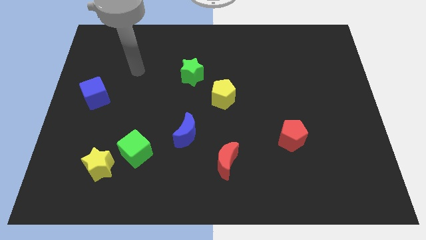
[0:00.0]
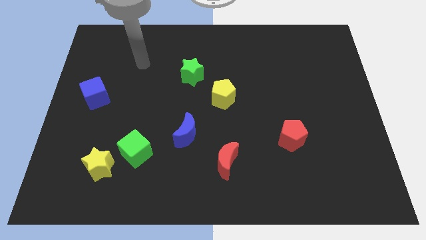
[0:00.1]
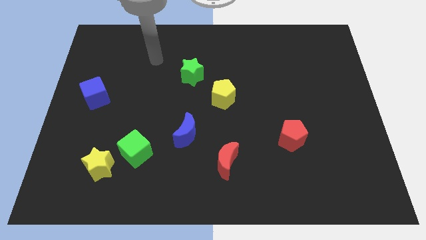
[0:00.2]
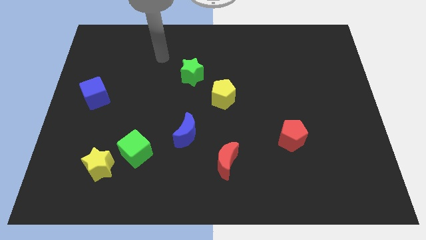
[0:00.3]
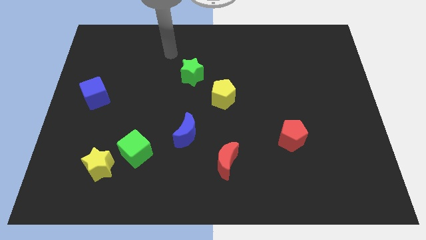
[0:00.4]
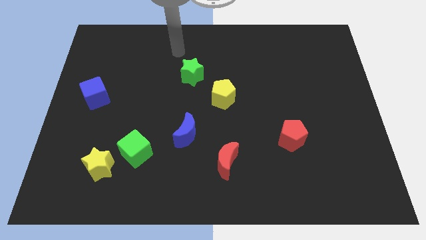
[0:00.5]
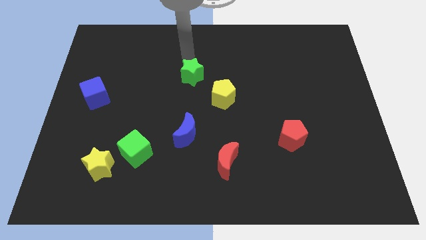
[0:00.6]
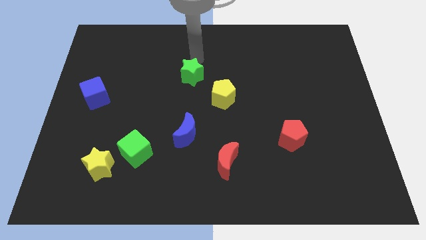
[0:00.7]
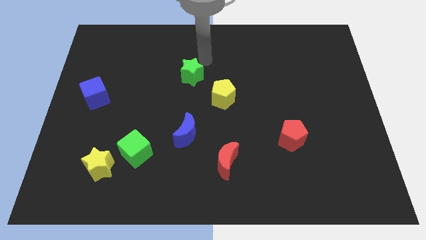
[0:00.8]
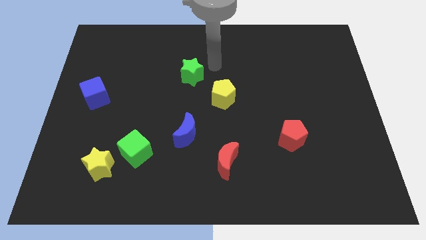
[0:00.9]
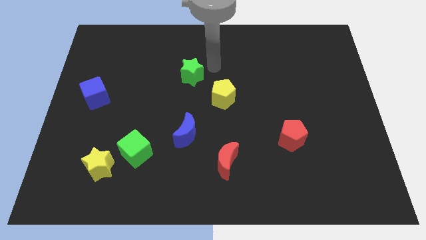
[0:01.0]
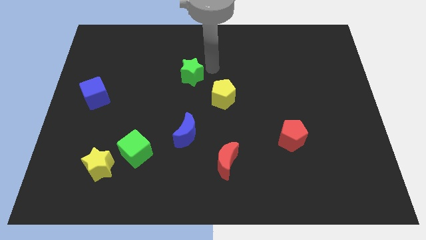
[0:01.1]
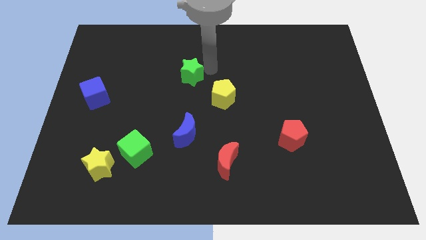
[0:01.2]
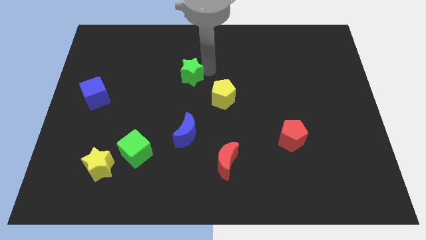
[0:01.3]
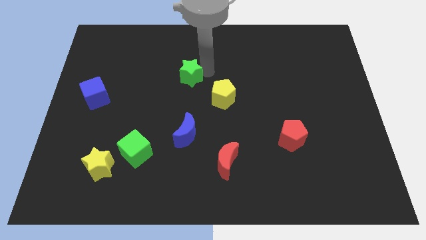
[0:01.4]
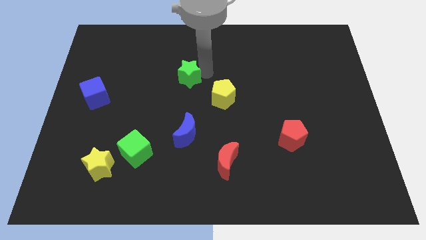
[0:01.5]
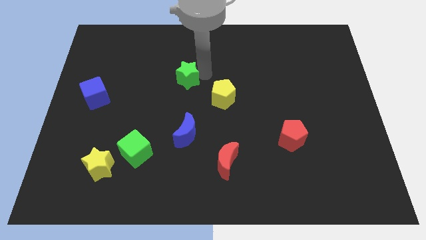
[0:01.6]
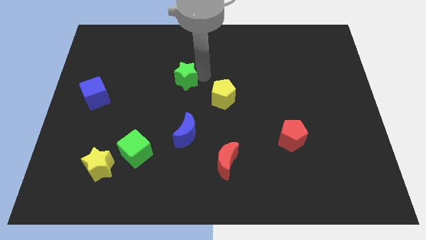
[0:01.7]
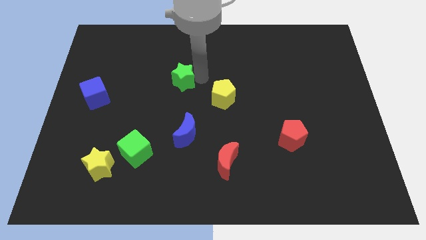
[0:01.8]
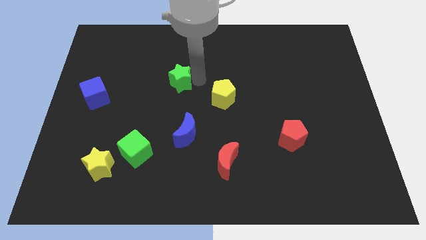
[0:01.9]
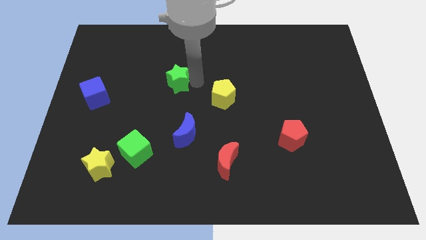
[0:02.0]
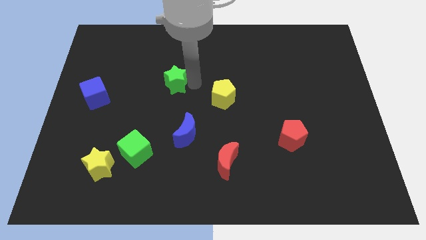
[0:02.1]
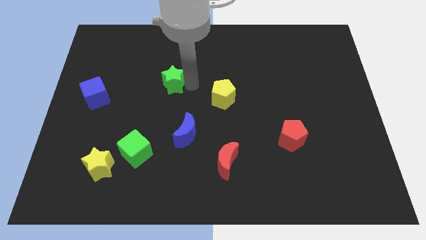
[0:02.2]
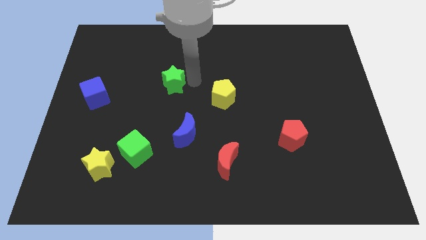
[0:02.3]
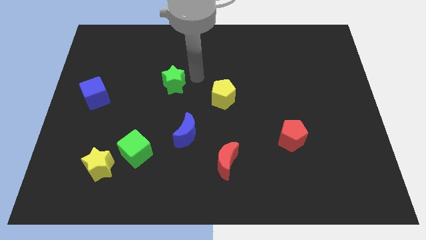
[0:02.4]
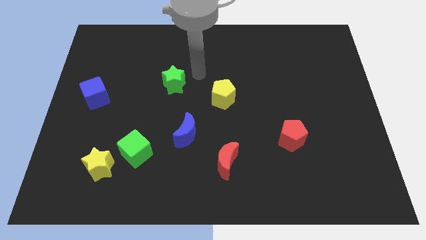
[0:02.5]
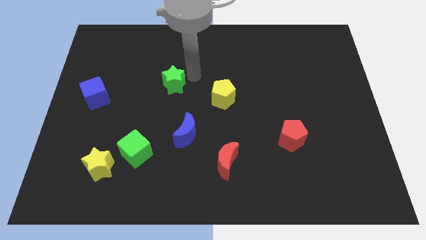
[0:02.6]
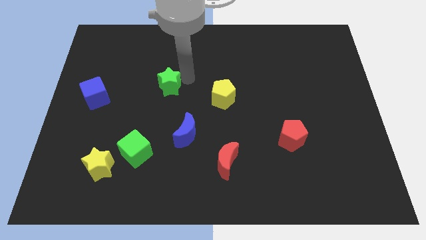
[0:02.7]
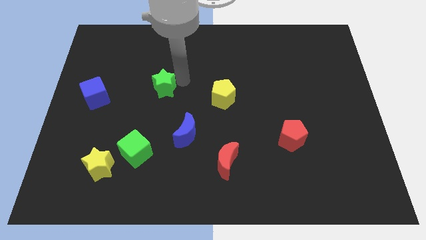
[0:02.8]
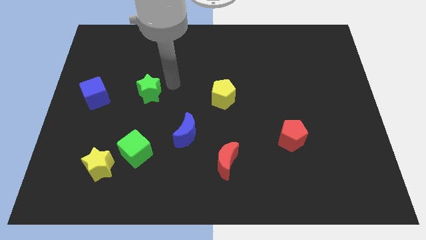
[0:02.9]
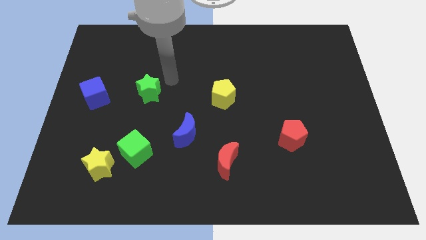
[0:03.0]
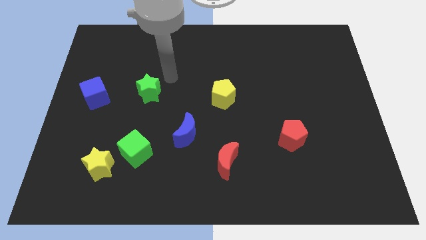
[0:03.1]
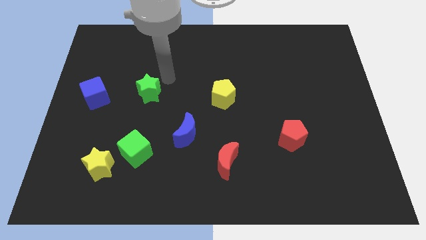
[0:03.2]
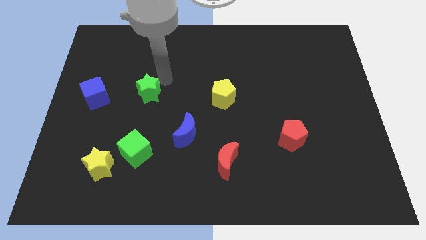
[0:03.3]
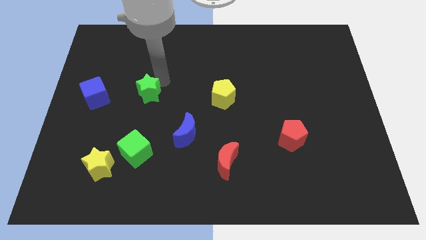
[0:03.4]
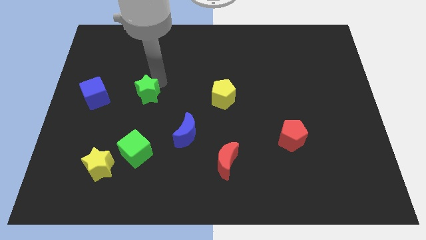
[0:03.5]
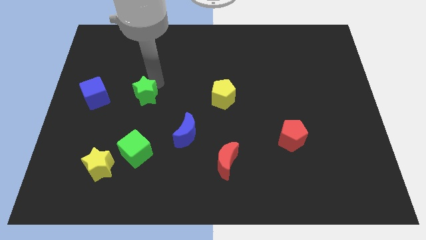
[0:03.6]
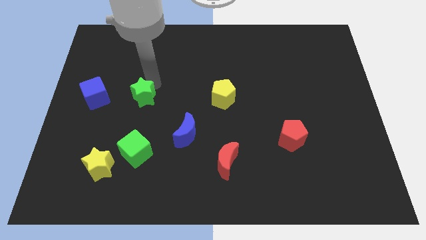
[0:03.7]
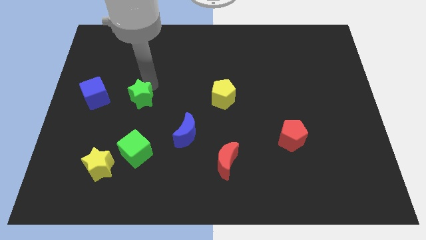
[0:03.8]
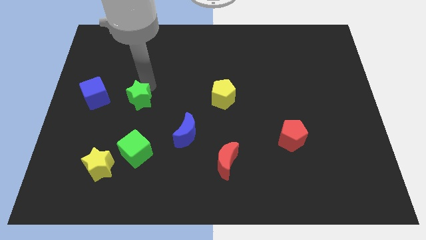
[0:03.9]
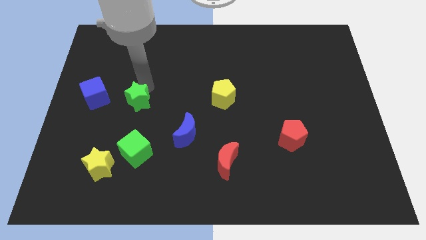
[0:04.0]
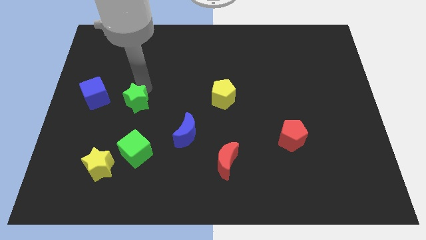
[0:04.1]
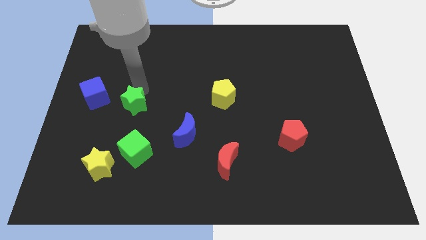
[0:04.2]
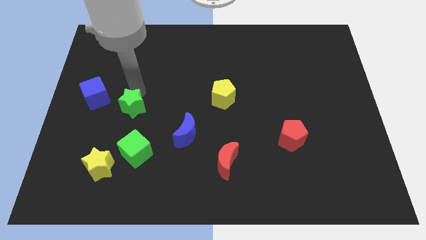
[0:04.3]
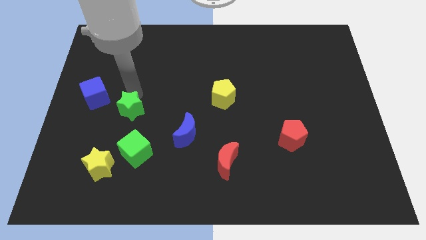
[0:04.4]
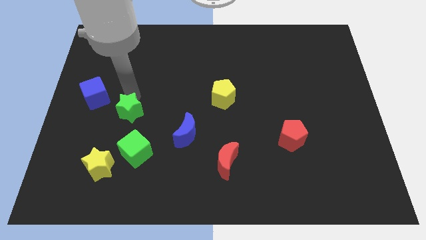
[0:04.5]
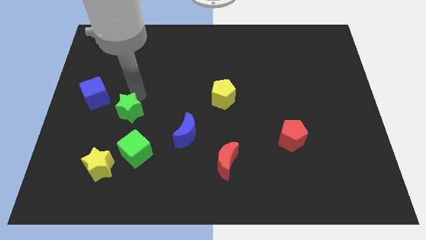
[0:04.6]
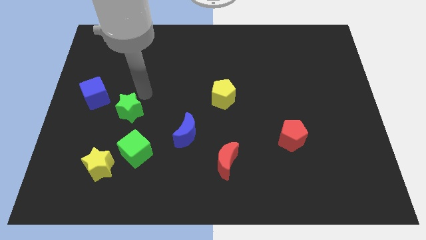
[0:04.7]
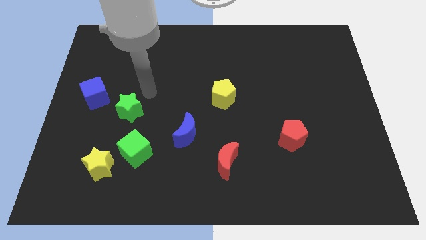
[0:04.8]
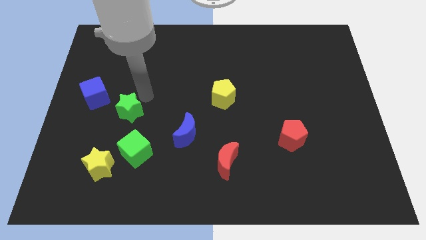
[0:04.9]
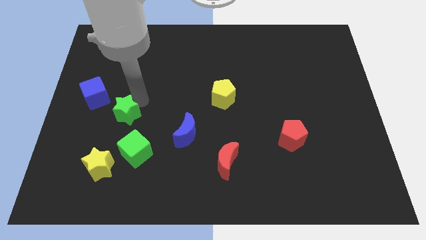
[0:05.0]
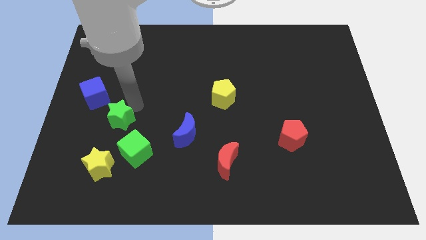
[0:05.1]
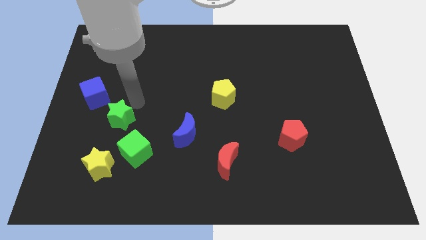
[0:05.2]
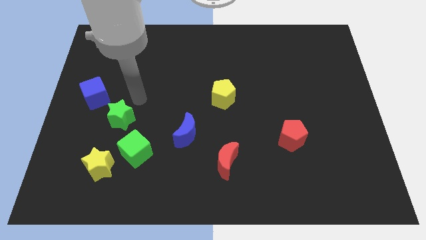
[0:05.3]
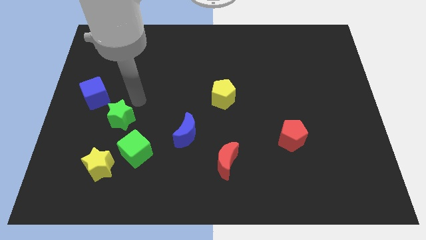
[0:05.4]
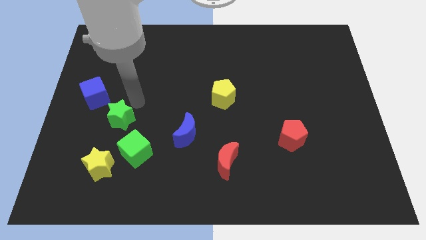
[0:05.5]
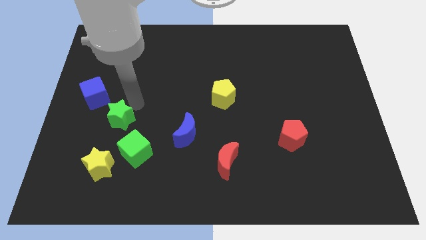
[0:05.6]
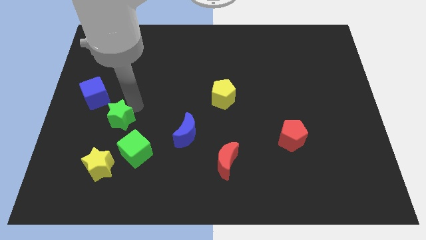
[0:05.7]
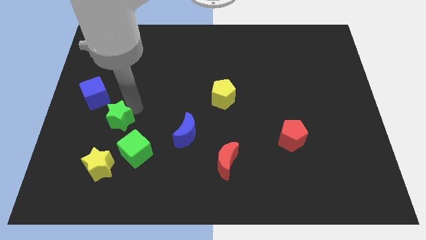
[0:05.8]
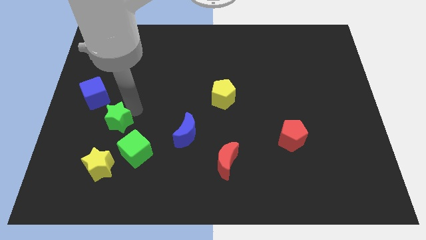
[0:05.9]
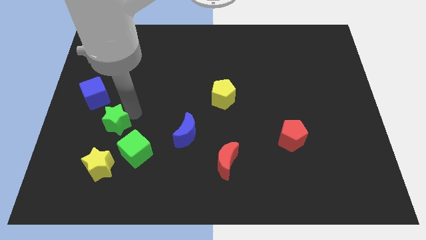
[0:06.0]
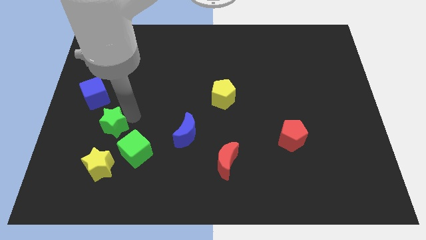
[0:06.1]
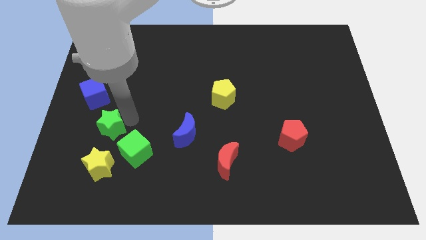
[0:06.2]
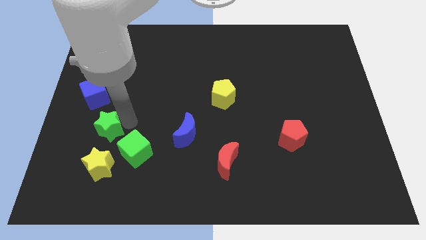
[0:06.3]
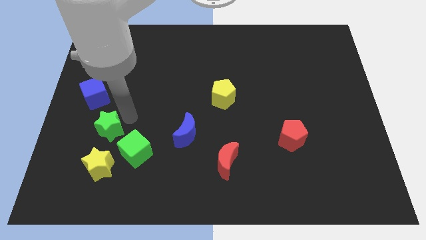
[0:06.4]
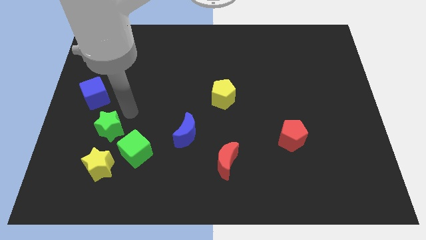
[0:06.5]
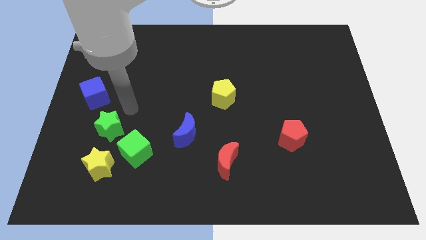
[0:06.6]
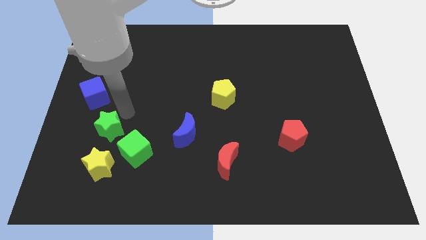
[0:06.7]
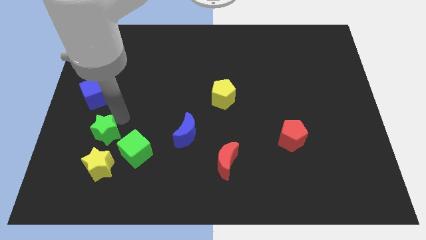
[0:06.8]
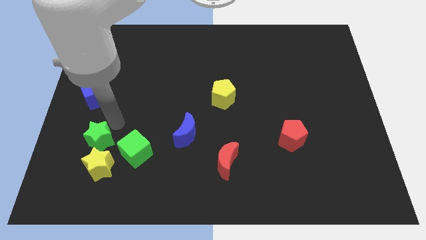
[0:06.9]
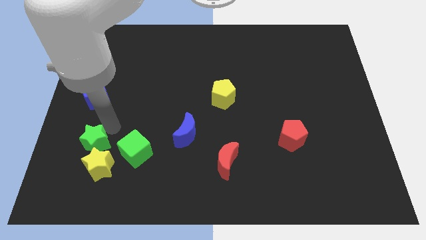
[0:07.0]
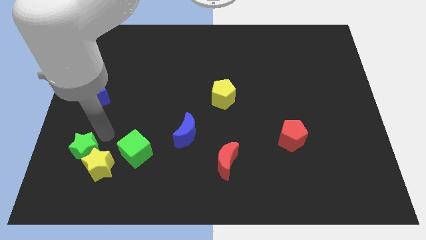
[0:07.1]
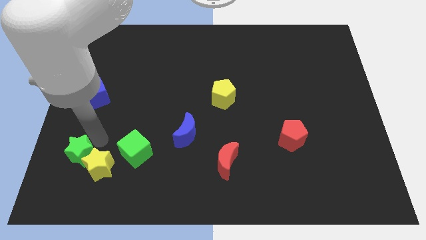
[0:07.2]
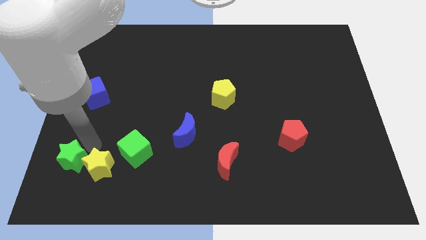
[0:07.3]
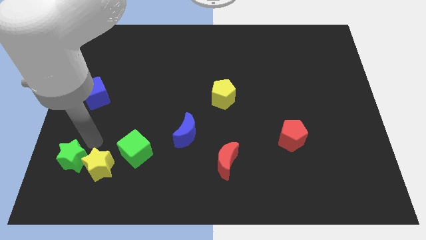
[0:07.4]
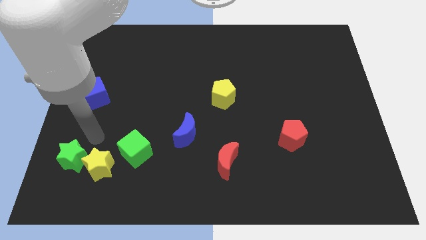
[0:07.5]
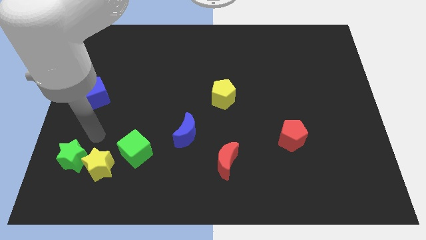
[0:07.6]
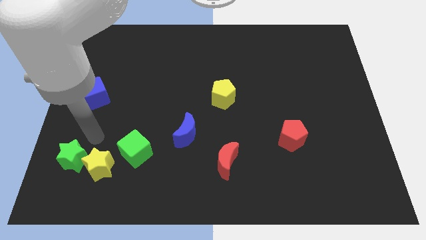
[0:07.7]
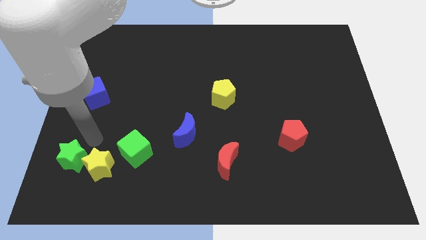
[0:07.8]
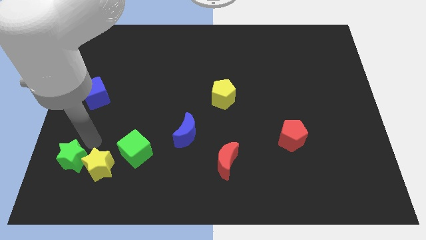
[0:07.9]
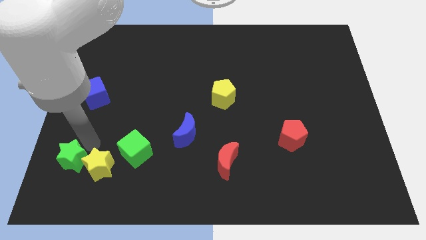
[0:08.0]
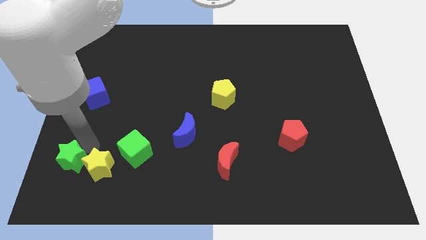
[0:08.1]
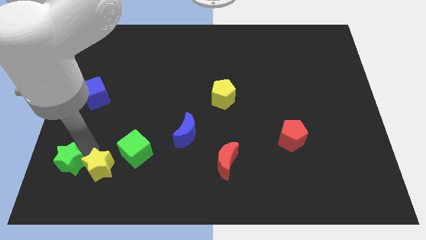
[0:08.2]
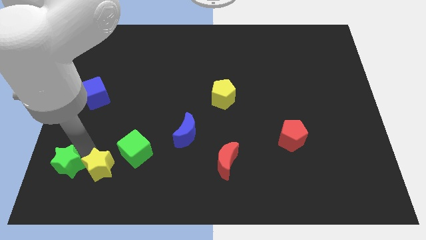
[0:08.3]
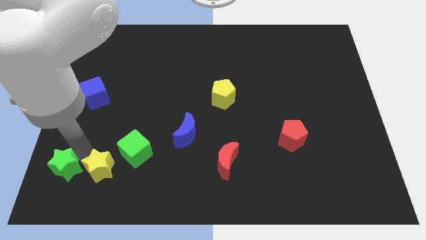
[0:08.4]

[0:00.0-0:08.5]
move the green star to the bottom left
